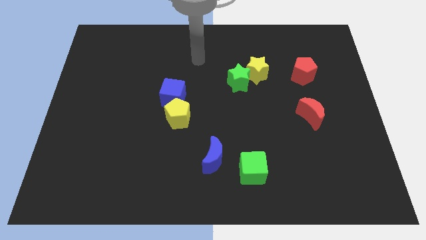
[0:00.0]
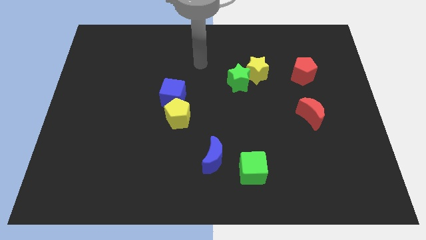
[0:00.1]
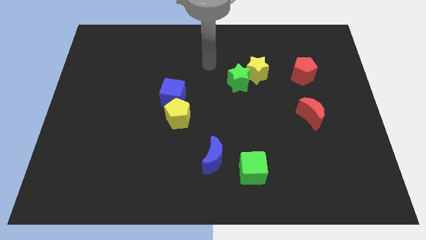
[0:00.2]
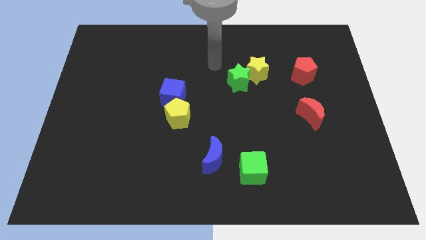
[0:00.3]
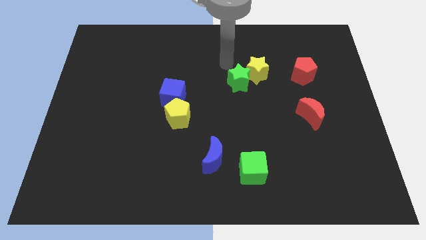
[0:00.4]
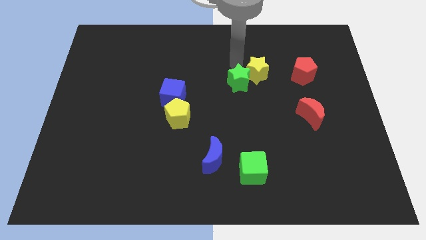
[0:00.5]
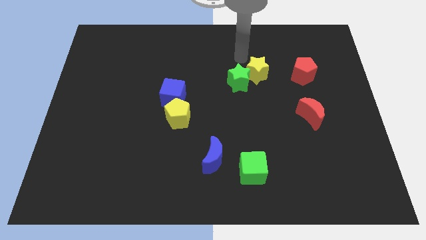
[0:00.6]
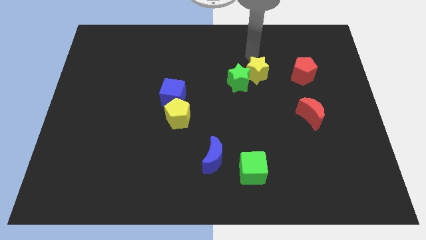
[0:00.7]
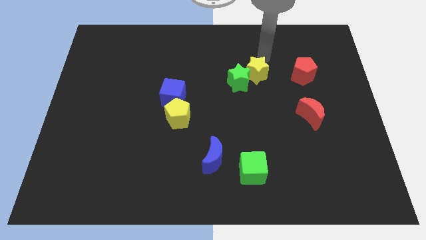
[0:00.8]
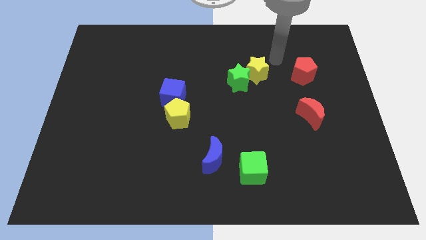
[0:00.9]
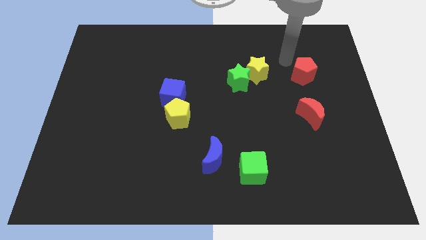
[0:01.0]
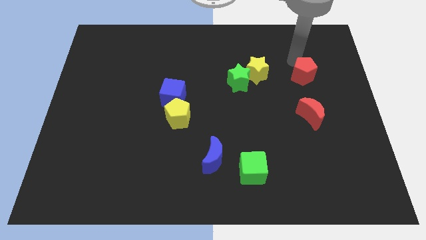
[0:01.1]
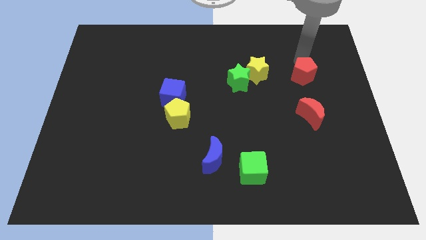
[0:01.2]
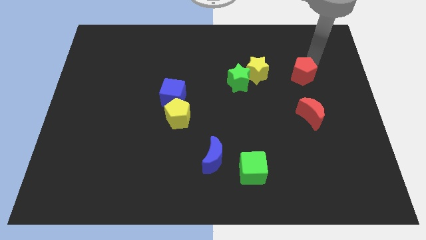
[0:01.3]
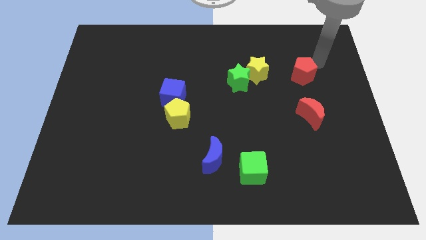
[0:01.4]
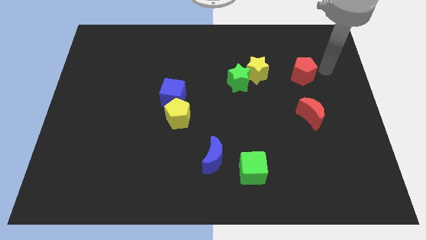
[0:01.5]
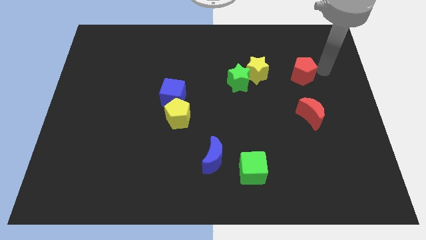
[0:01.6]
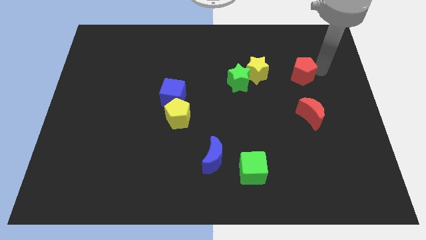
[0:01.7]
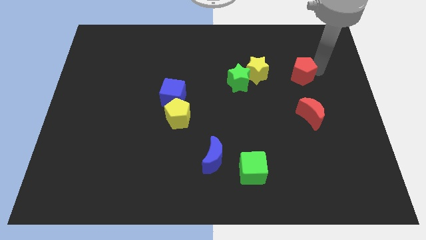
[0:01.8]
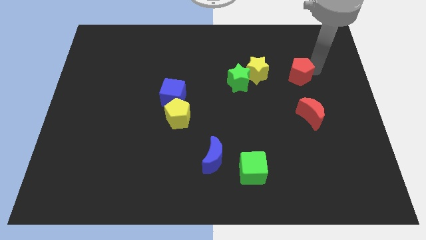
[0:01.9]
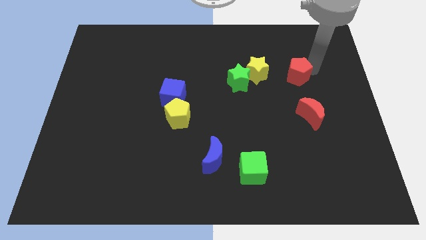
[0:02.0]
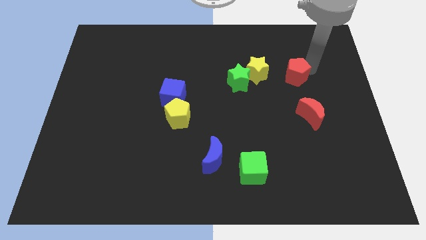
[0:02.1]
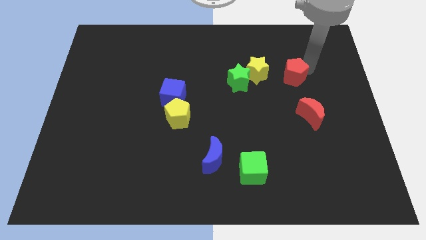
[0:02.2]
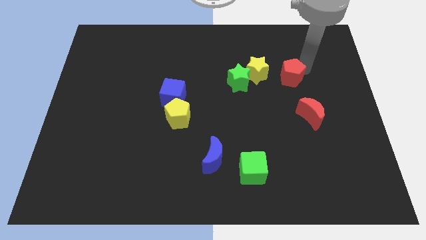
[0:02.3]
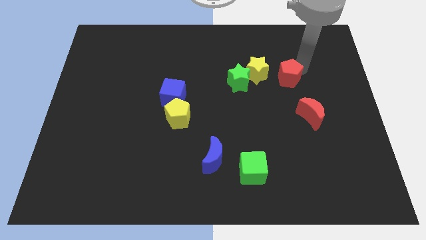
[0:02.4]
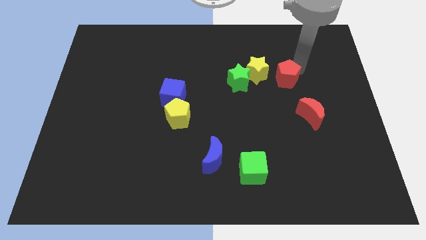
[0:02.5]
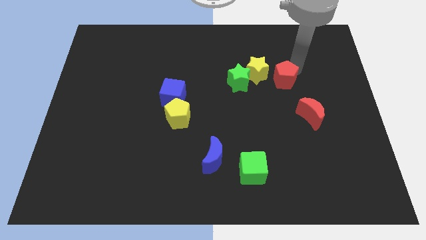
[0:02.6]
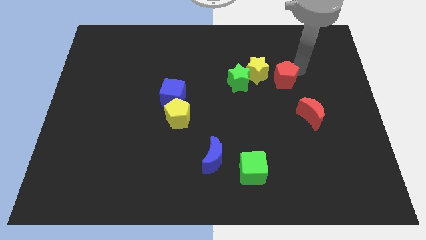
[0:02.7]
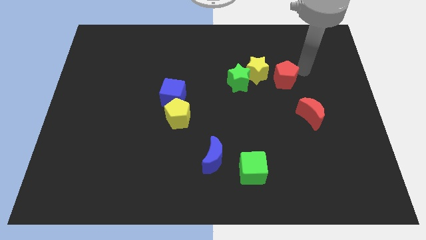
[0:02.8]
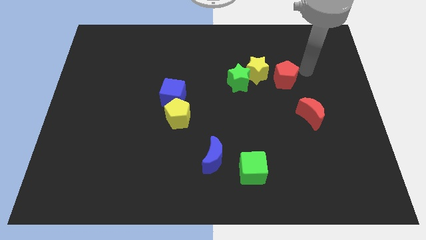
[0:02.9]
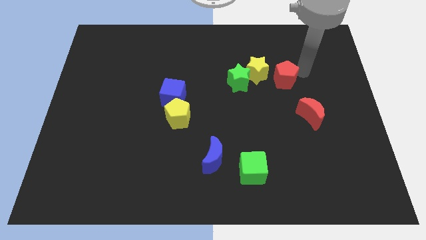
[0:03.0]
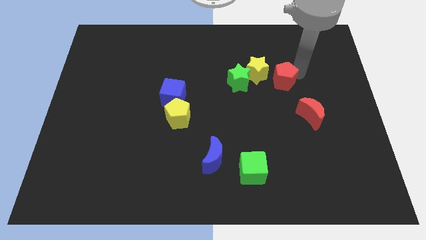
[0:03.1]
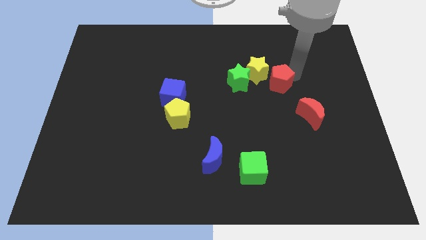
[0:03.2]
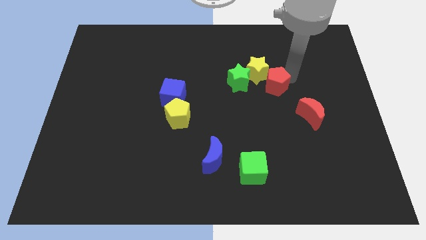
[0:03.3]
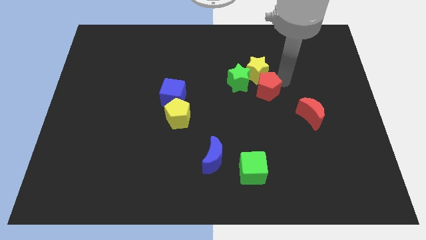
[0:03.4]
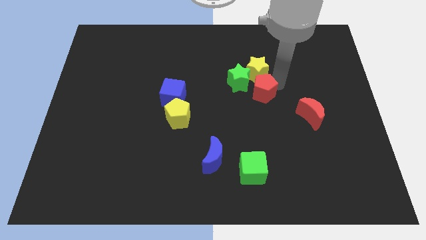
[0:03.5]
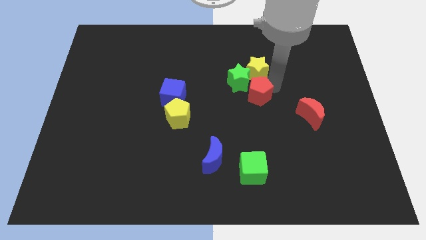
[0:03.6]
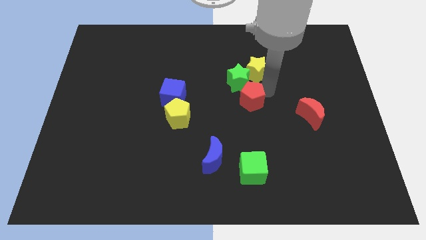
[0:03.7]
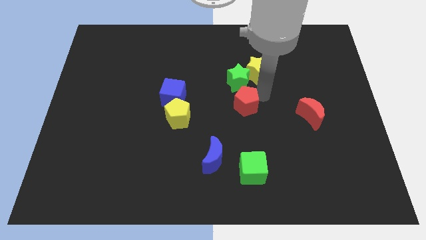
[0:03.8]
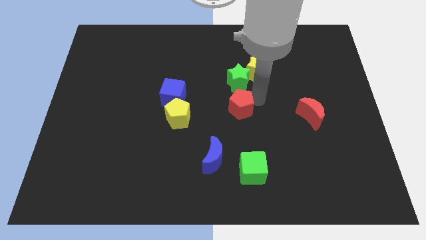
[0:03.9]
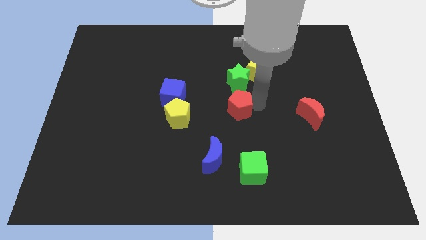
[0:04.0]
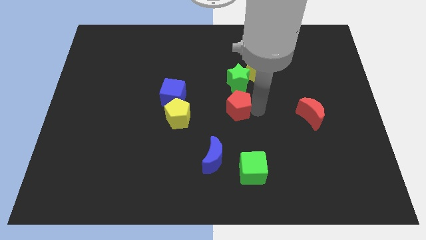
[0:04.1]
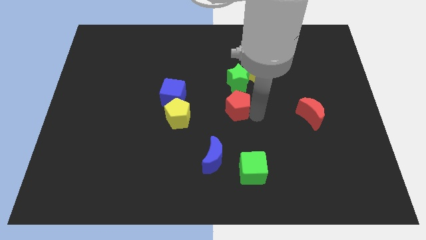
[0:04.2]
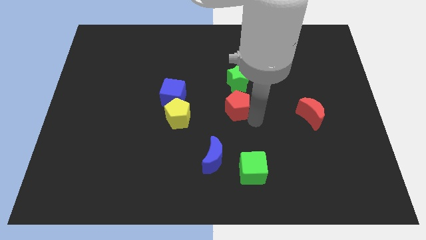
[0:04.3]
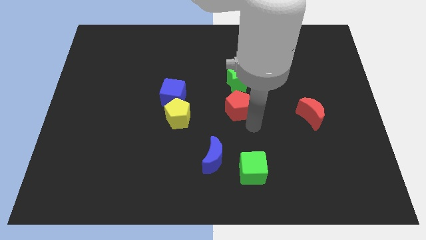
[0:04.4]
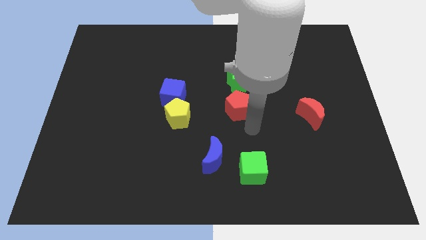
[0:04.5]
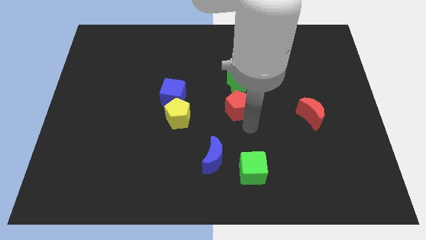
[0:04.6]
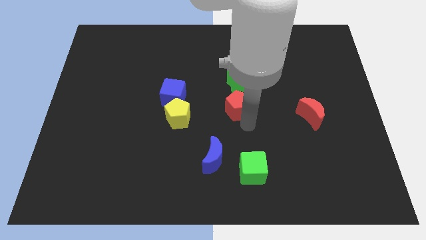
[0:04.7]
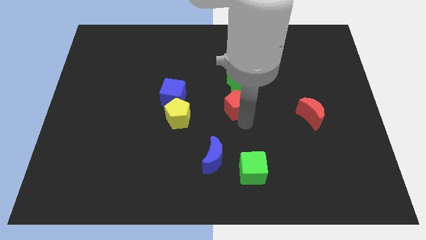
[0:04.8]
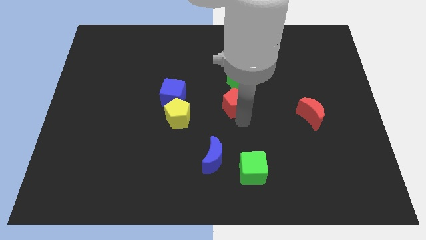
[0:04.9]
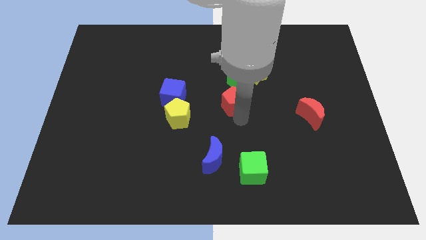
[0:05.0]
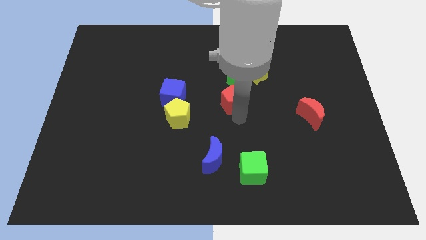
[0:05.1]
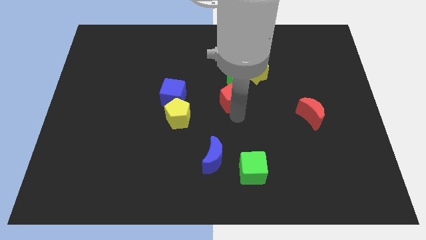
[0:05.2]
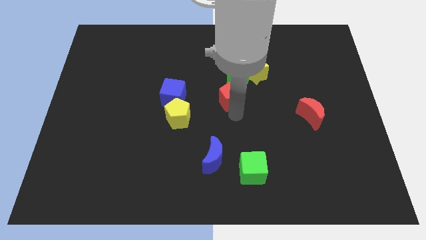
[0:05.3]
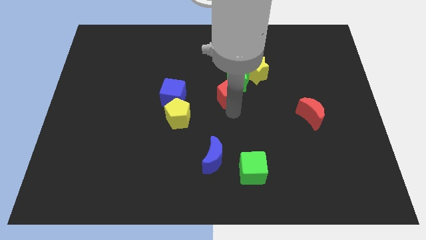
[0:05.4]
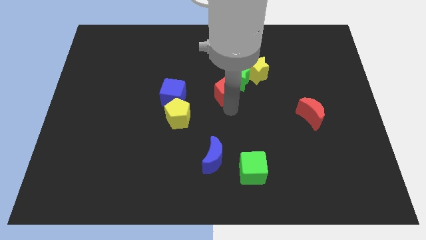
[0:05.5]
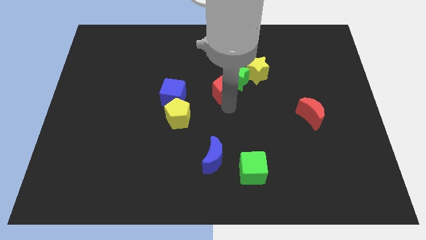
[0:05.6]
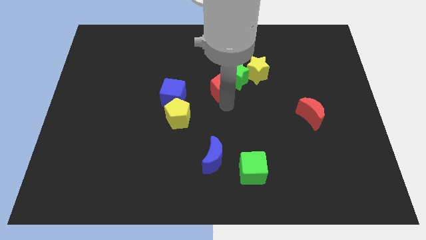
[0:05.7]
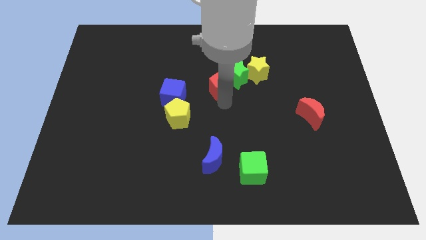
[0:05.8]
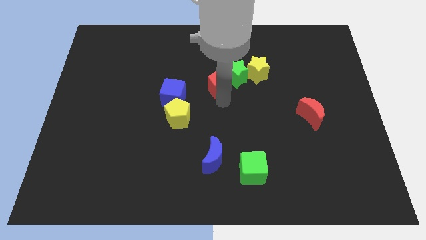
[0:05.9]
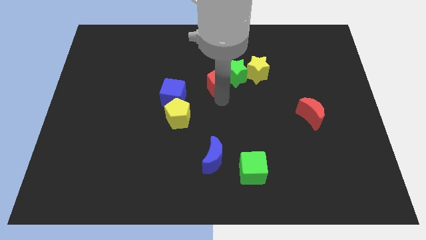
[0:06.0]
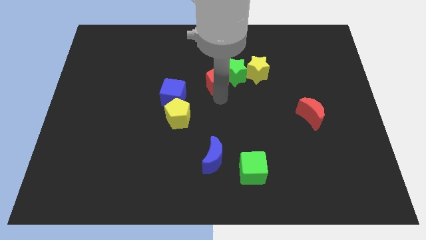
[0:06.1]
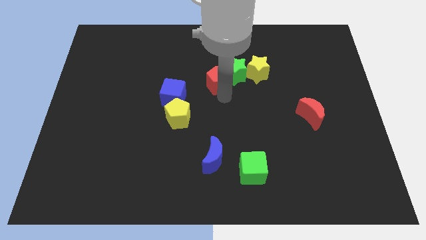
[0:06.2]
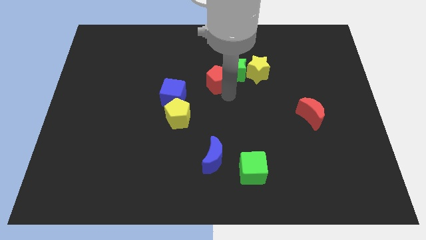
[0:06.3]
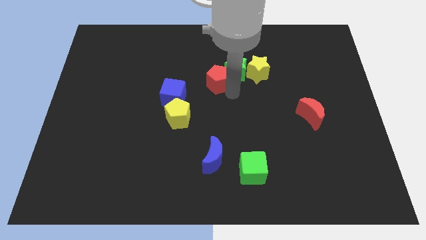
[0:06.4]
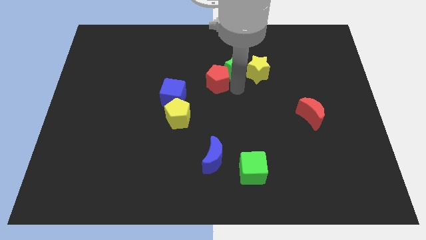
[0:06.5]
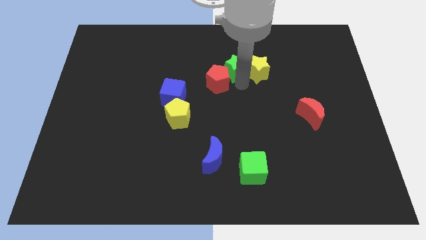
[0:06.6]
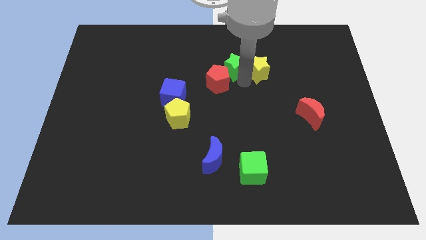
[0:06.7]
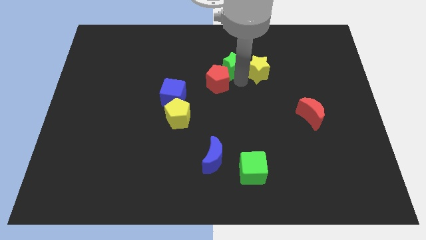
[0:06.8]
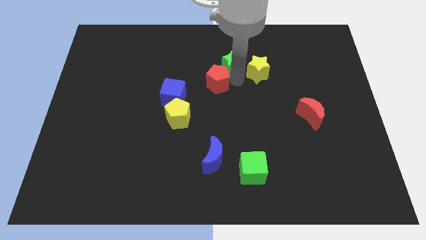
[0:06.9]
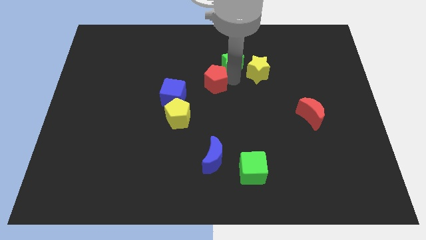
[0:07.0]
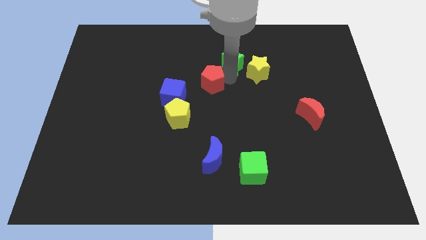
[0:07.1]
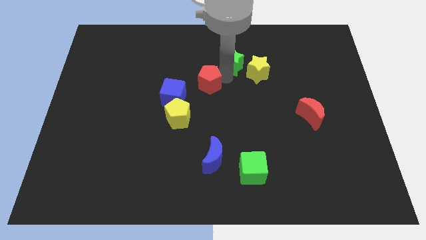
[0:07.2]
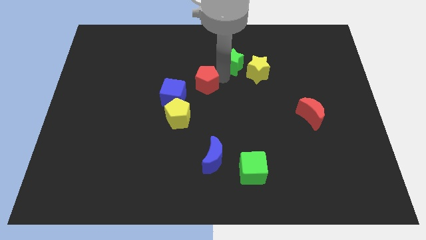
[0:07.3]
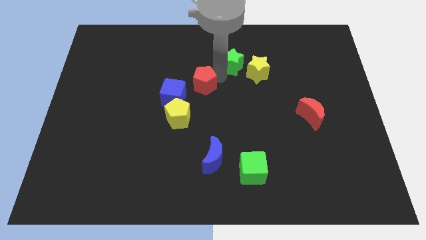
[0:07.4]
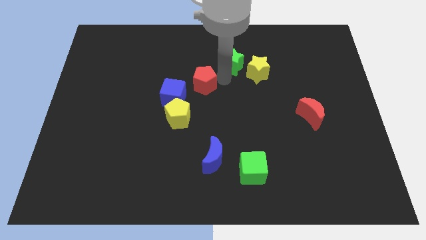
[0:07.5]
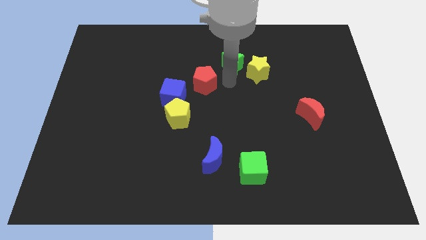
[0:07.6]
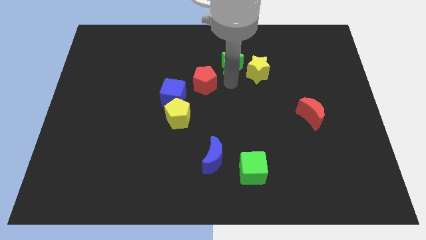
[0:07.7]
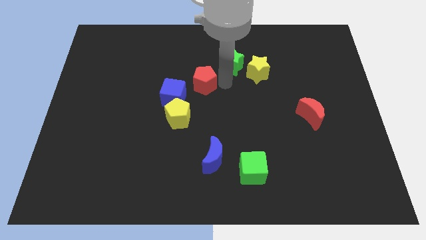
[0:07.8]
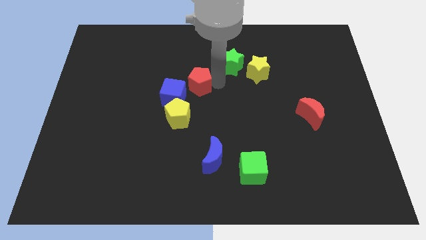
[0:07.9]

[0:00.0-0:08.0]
move the red pentagon to the top side of the yellow pentagon
